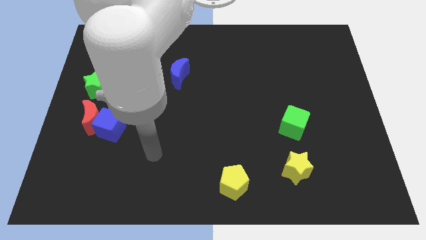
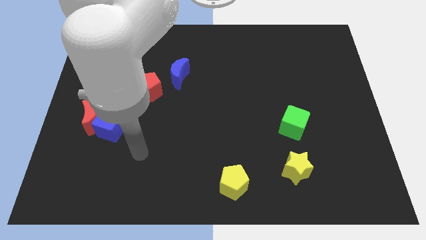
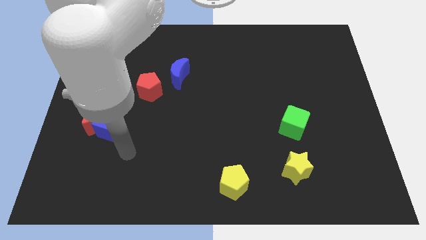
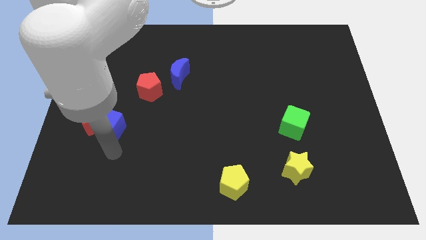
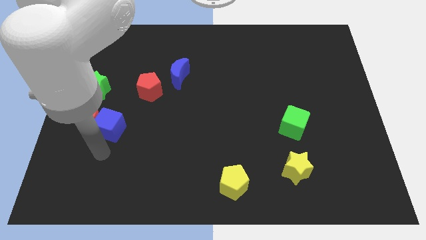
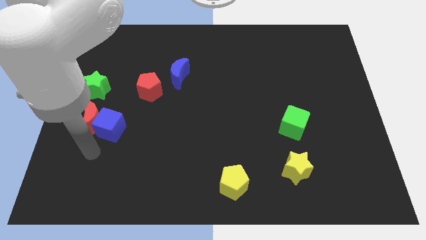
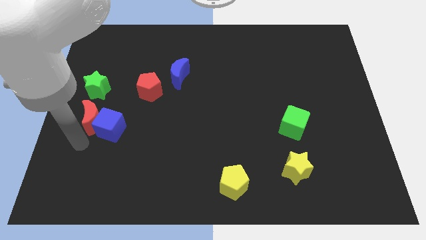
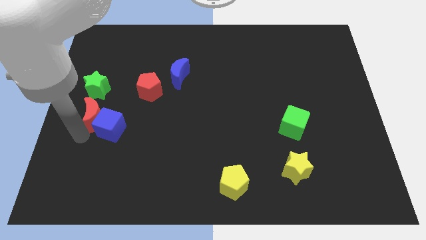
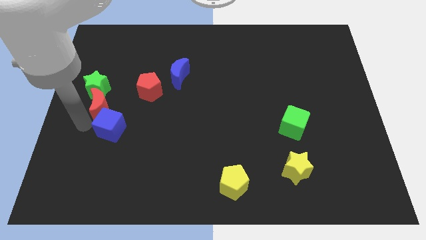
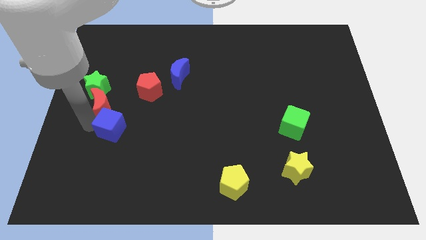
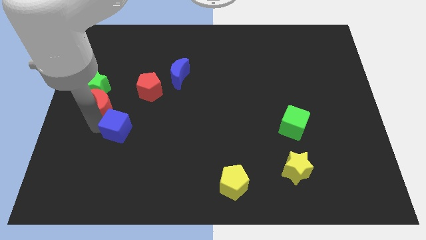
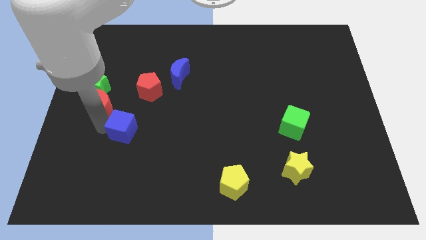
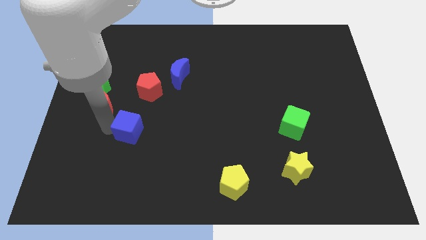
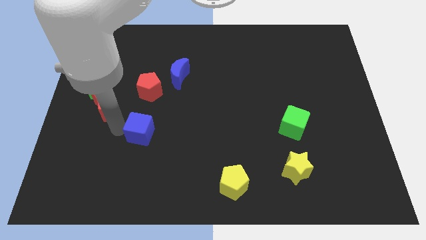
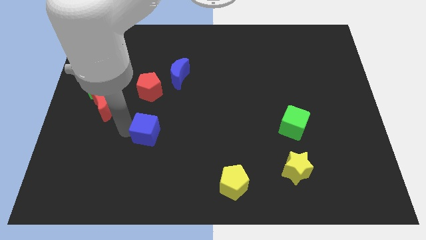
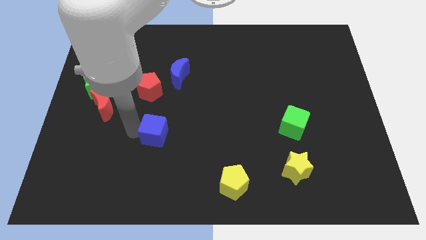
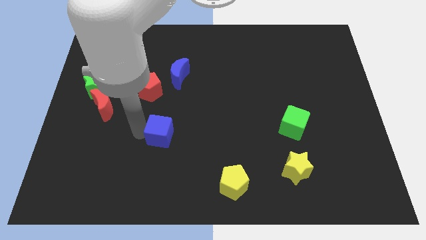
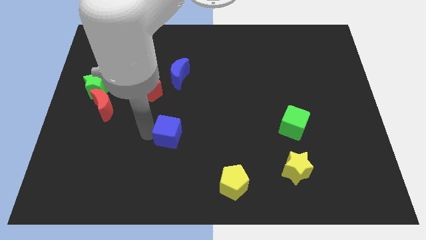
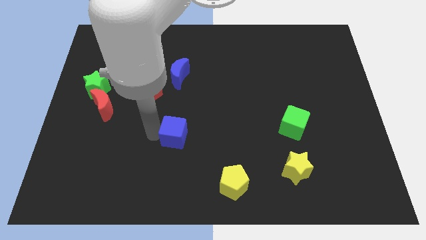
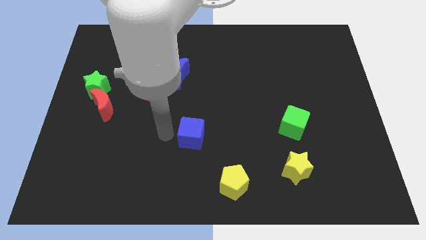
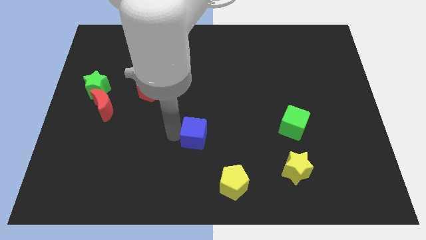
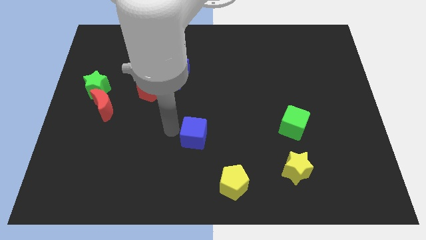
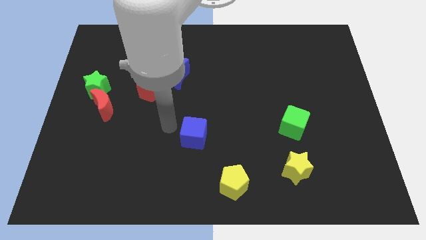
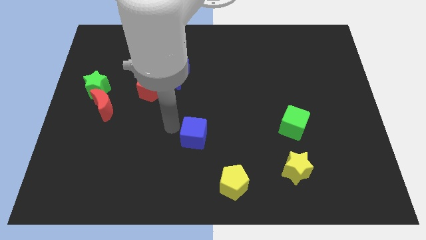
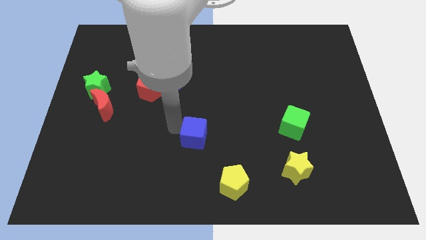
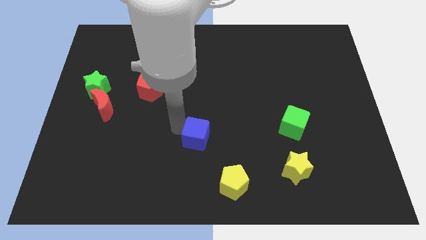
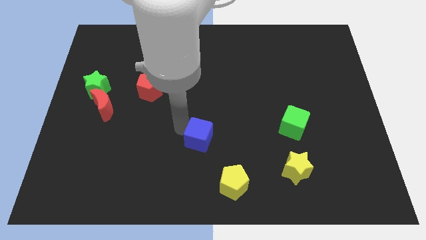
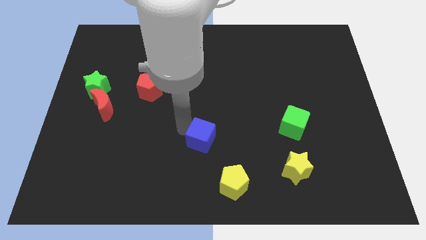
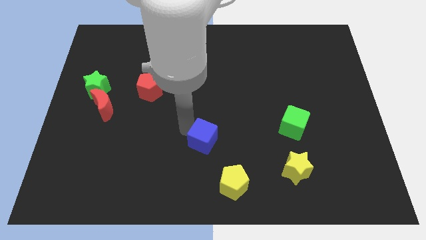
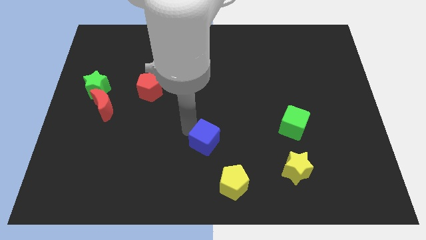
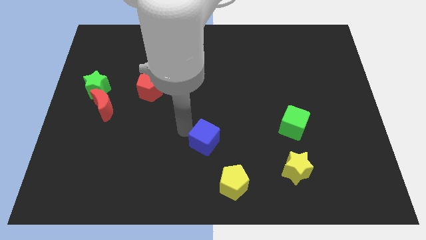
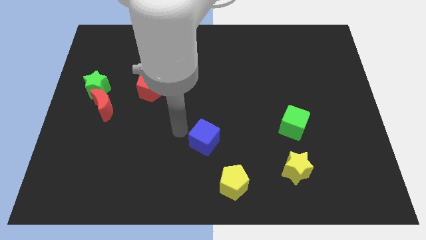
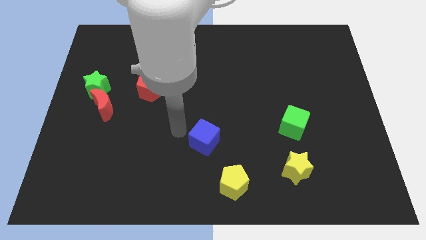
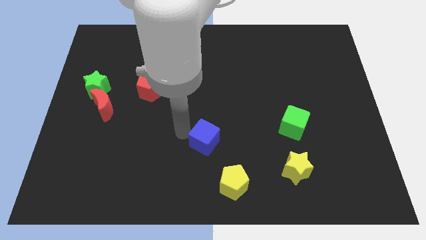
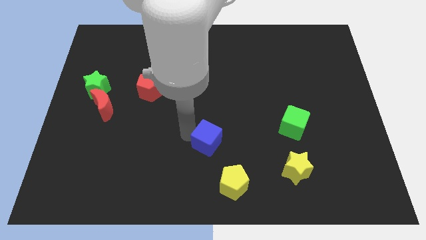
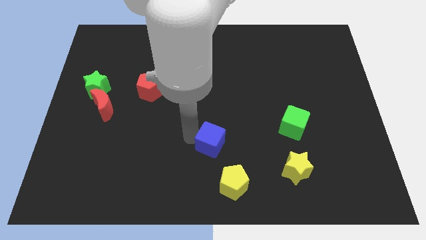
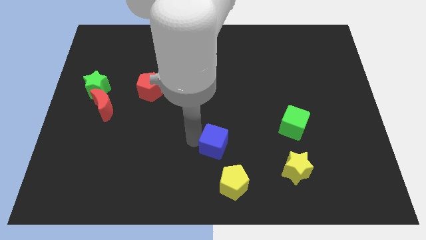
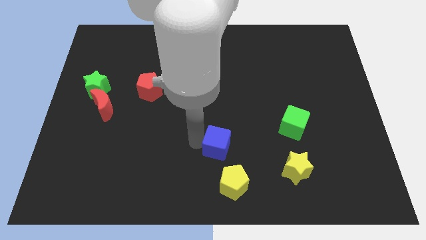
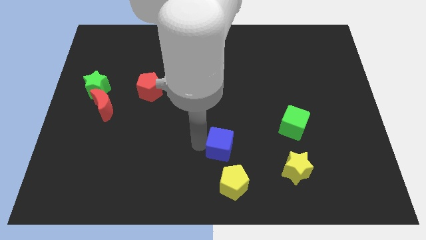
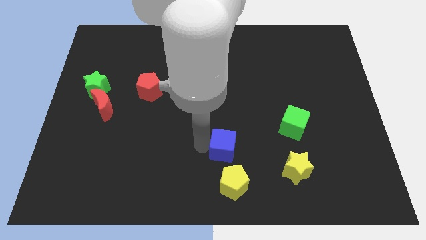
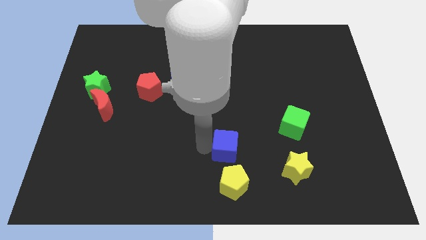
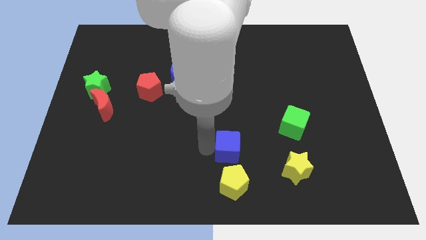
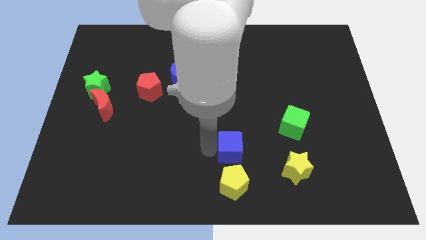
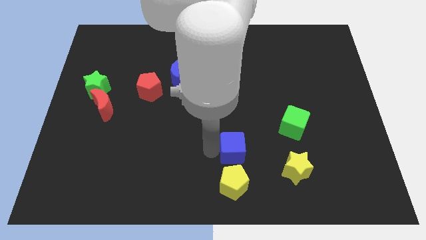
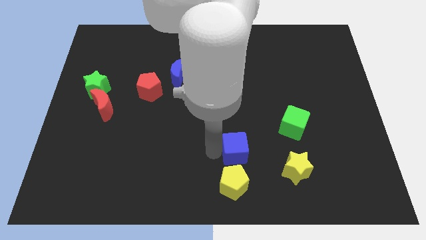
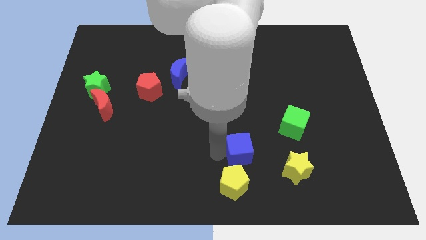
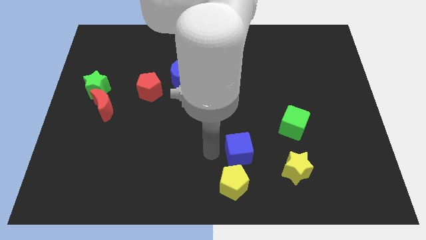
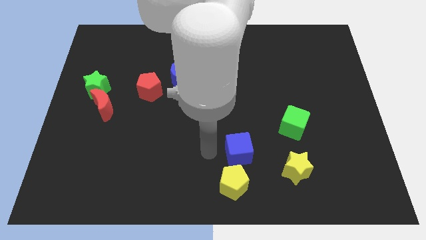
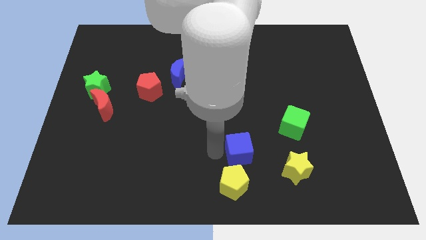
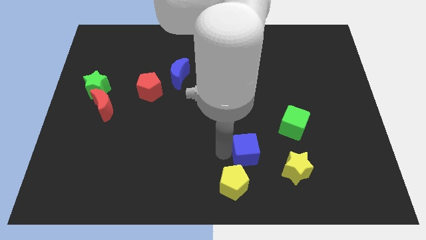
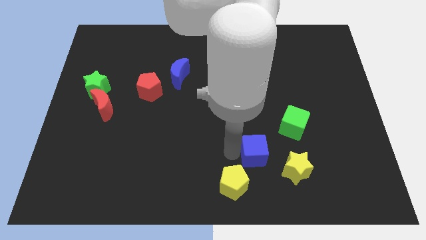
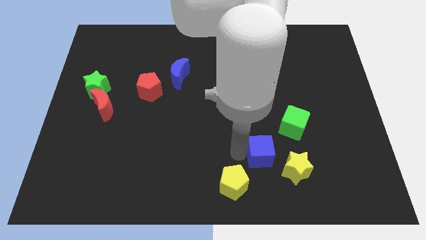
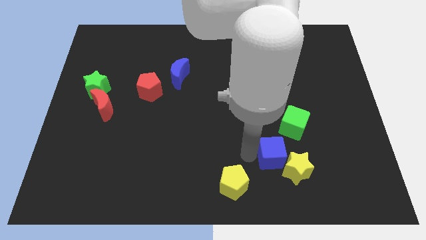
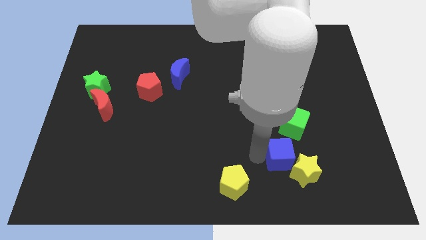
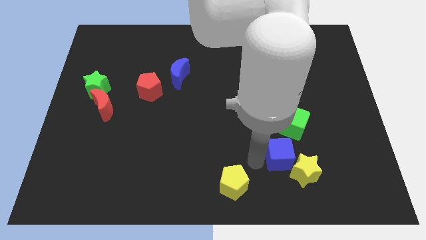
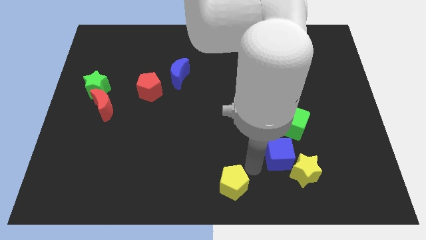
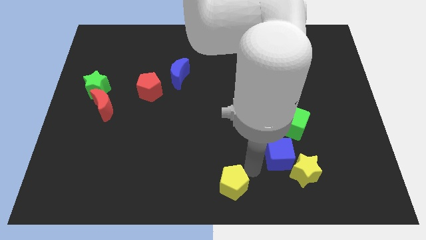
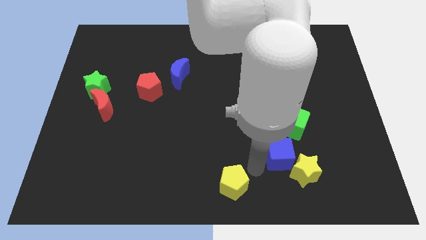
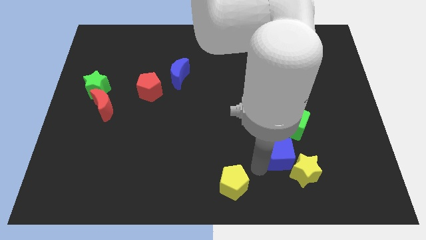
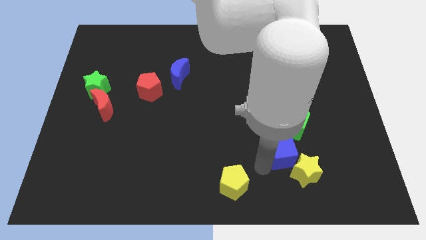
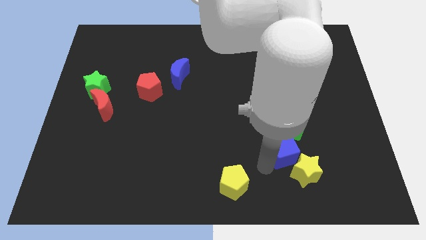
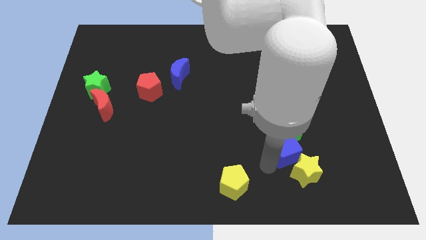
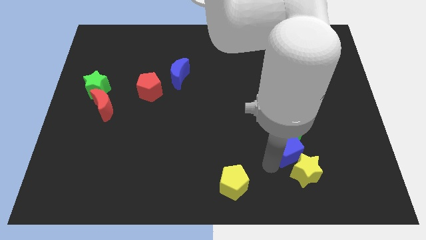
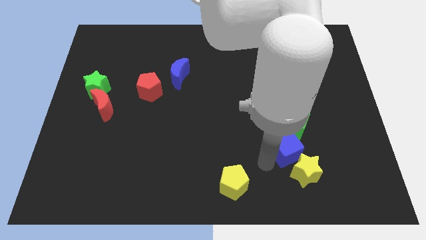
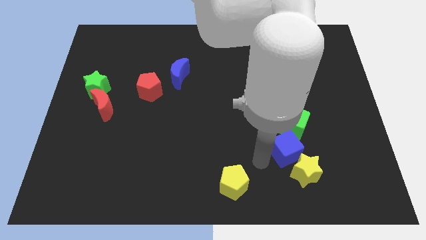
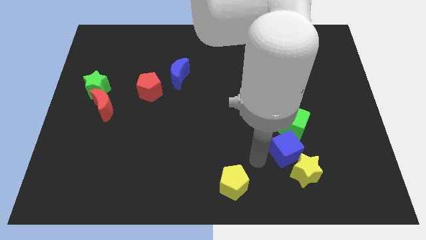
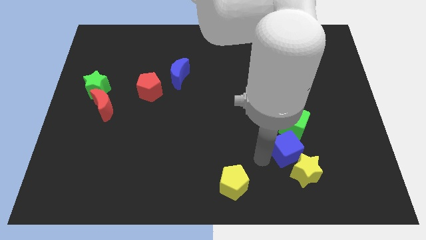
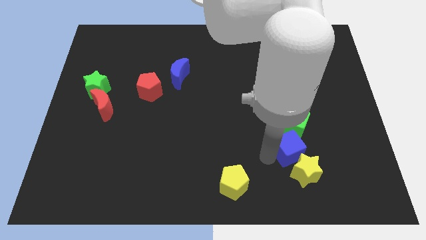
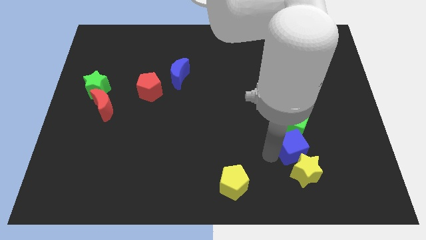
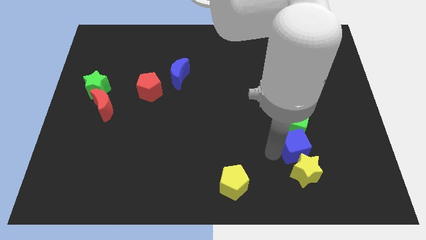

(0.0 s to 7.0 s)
move the blue cube to the bottom right side of the green cube

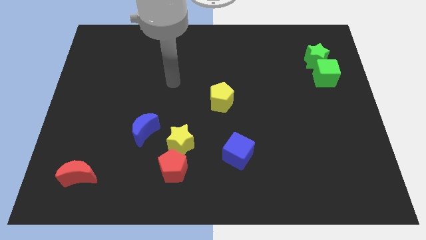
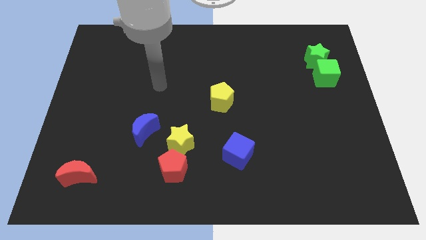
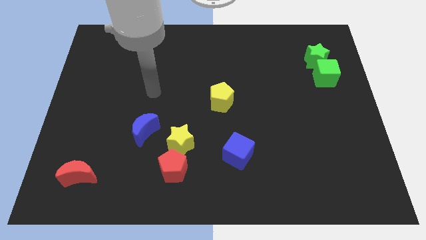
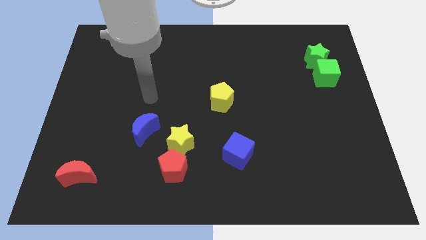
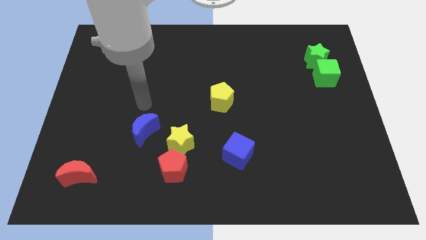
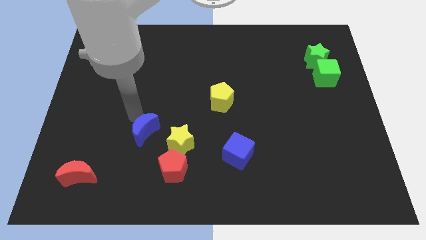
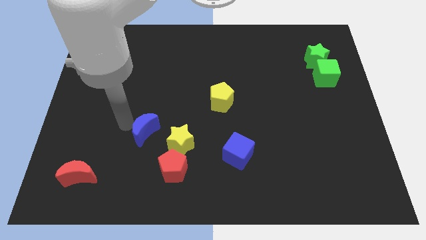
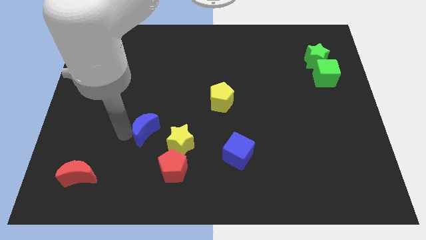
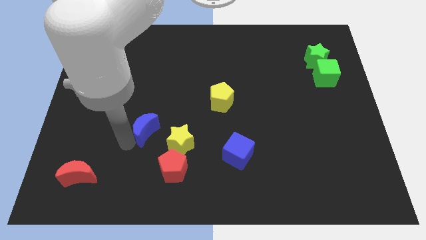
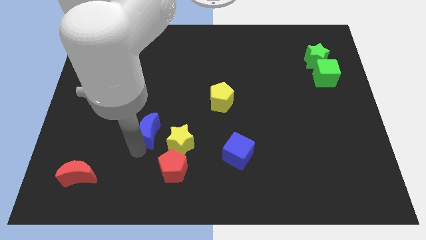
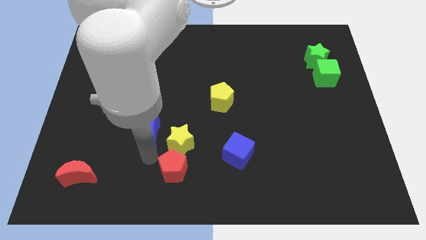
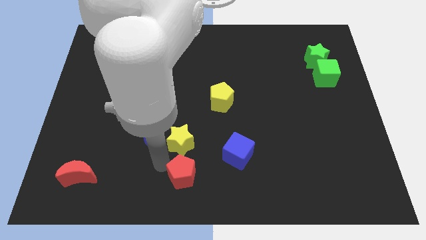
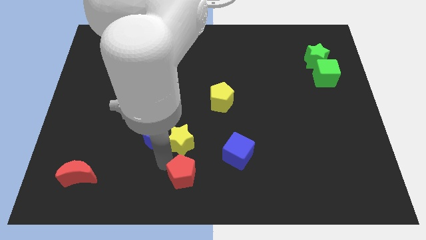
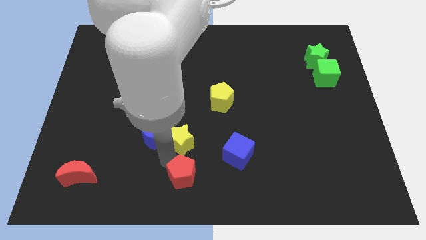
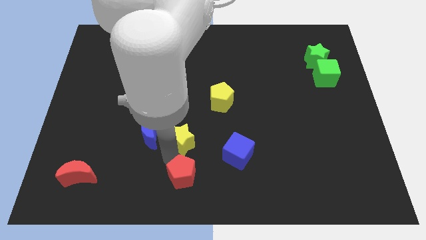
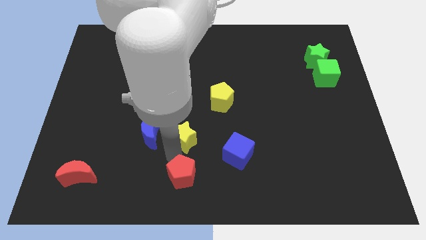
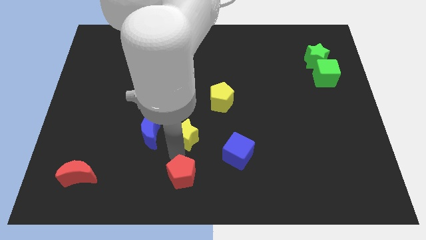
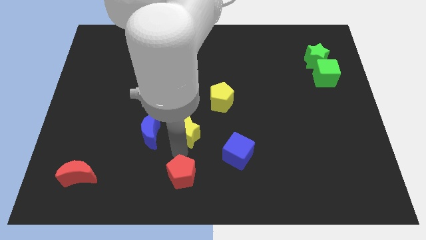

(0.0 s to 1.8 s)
put the yellow star diagonally down and to the left of the yellow pentagon
